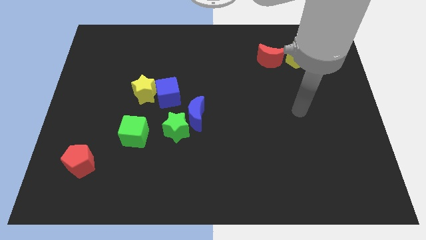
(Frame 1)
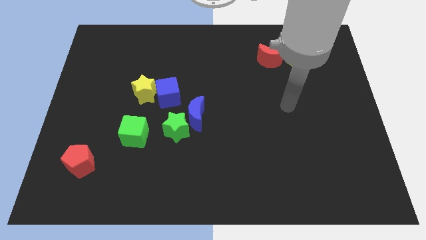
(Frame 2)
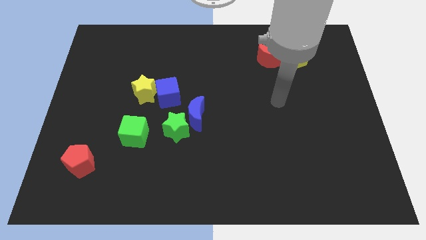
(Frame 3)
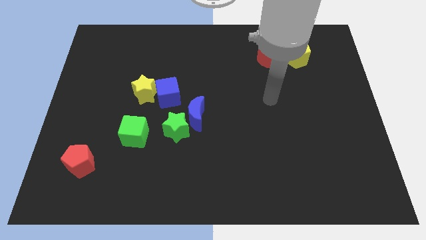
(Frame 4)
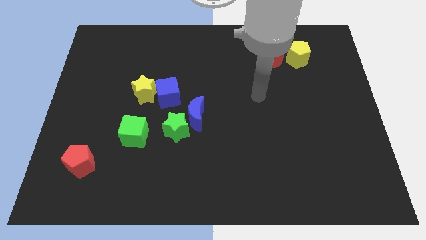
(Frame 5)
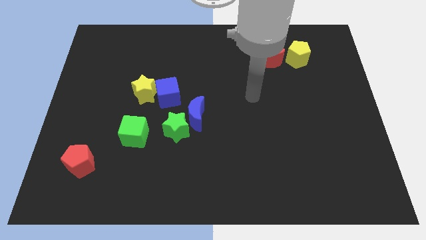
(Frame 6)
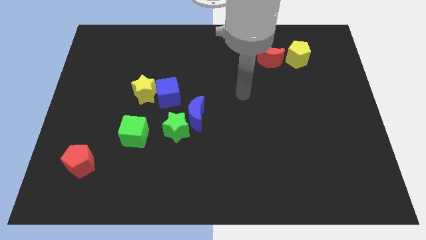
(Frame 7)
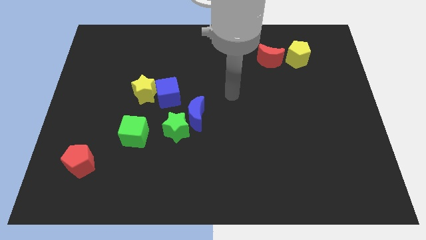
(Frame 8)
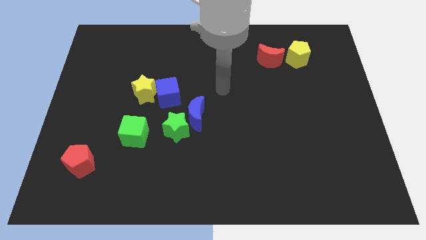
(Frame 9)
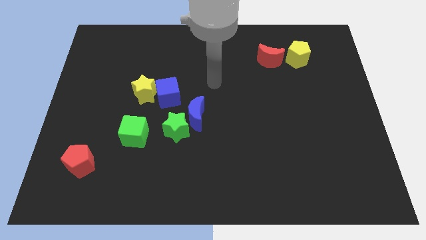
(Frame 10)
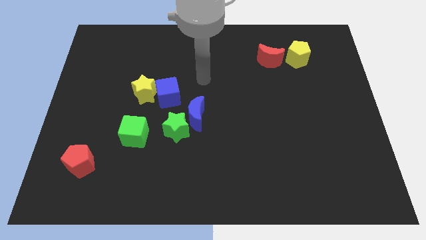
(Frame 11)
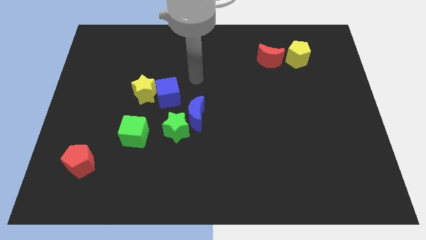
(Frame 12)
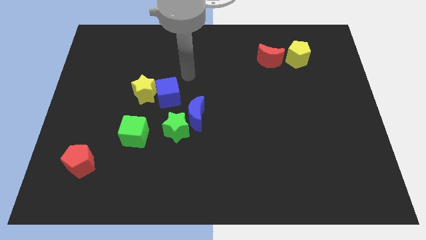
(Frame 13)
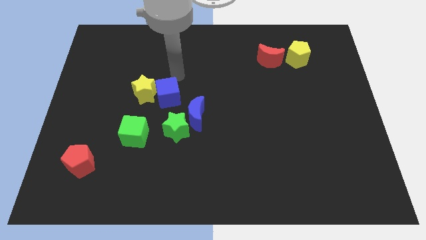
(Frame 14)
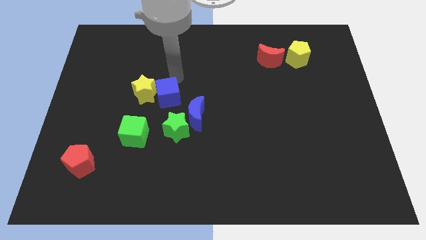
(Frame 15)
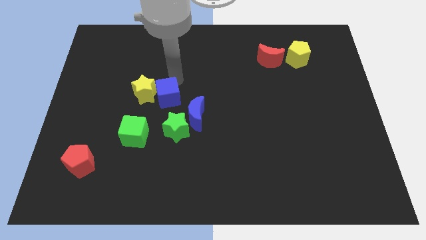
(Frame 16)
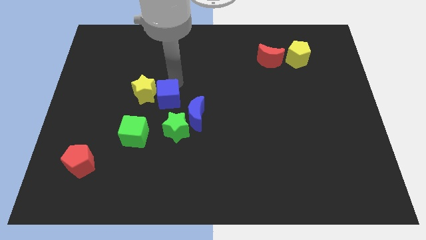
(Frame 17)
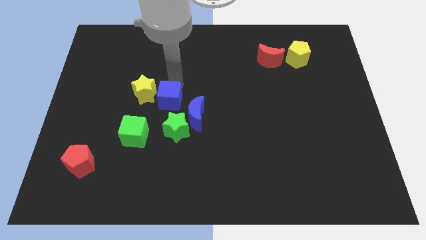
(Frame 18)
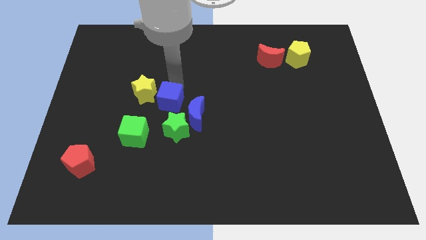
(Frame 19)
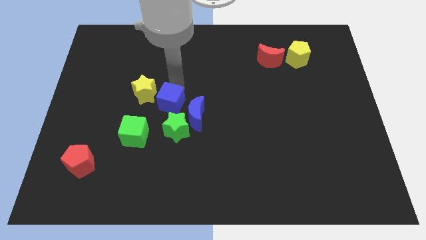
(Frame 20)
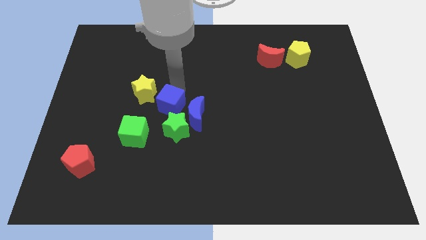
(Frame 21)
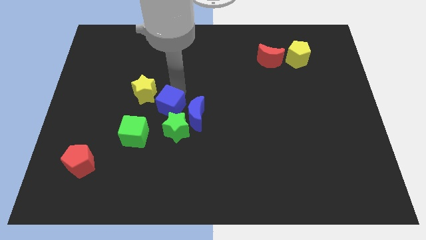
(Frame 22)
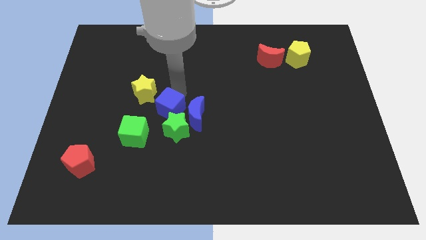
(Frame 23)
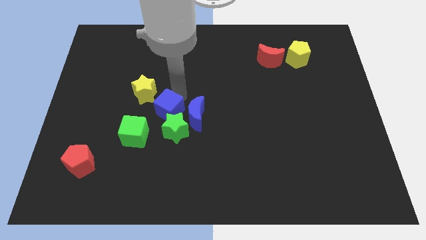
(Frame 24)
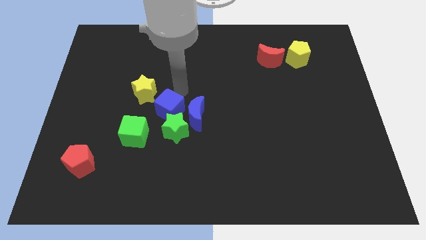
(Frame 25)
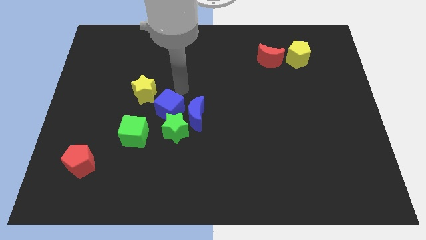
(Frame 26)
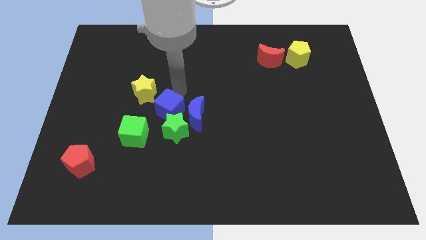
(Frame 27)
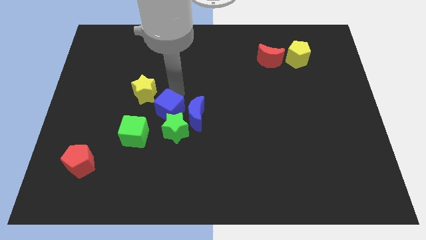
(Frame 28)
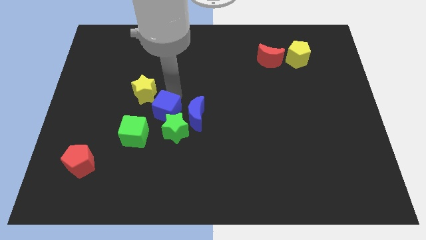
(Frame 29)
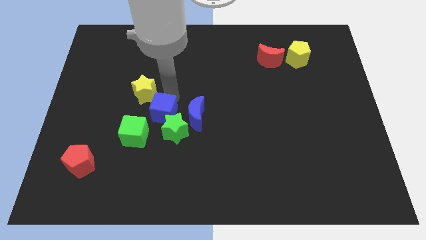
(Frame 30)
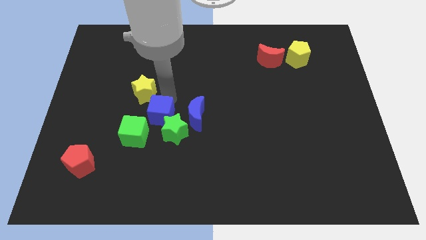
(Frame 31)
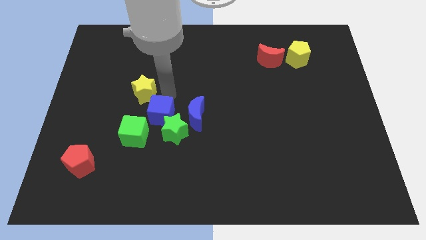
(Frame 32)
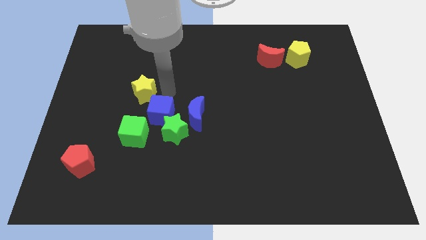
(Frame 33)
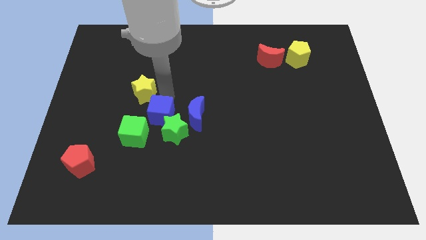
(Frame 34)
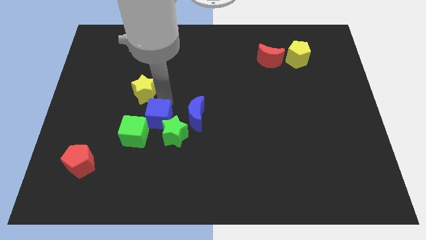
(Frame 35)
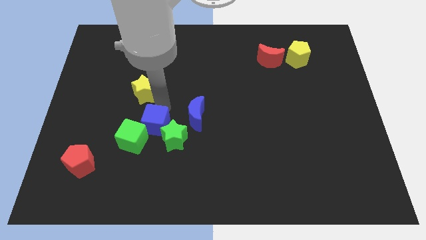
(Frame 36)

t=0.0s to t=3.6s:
move the blue cube a little bit down

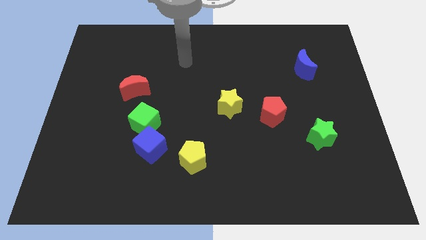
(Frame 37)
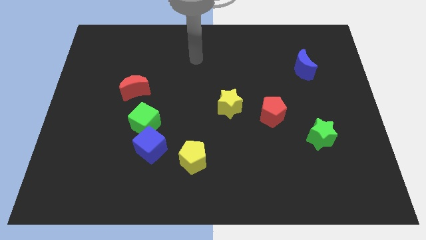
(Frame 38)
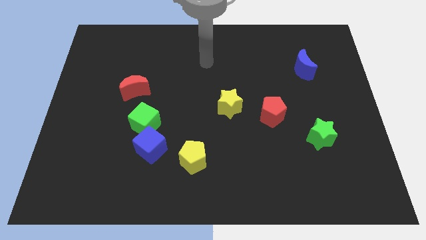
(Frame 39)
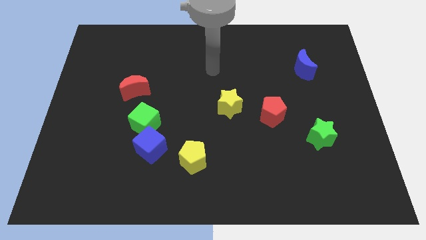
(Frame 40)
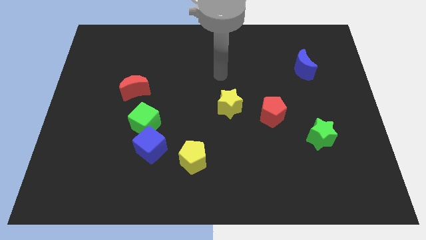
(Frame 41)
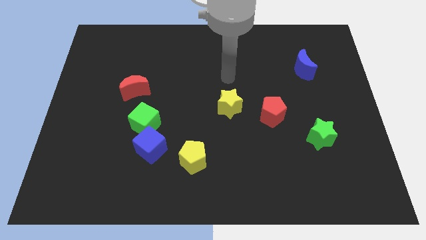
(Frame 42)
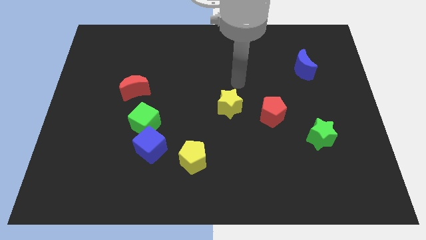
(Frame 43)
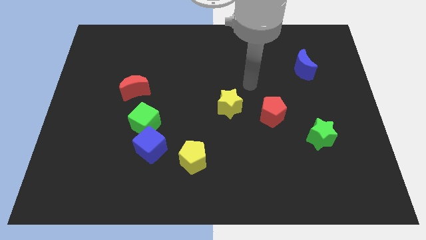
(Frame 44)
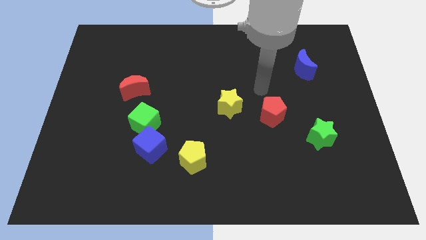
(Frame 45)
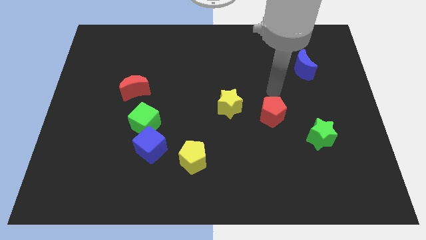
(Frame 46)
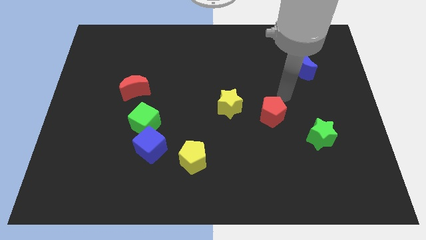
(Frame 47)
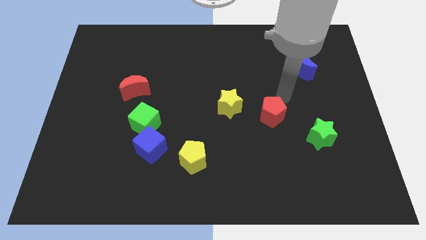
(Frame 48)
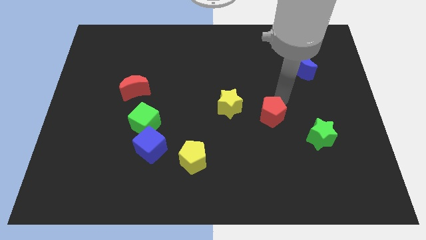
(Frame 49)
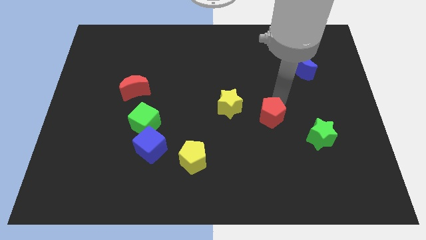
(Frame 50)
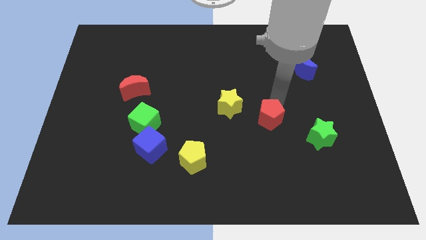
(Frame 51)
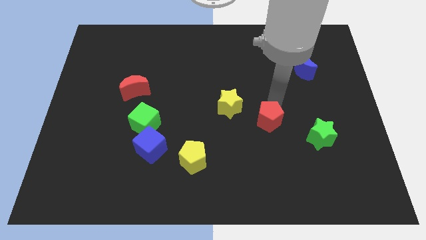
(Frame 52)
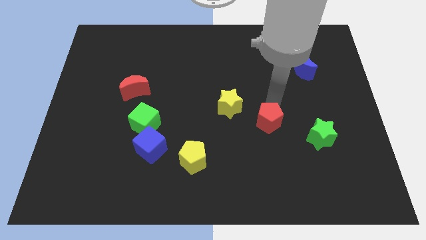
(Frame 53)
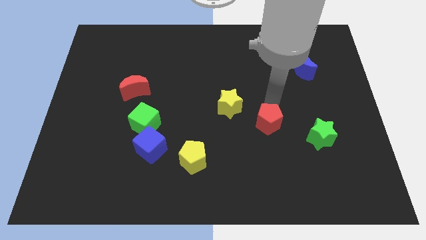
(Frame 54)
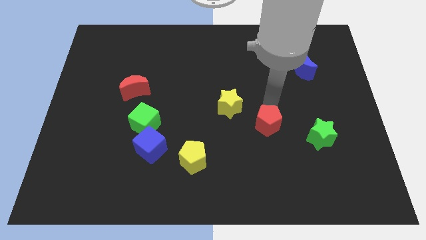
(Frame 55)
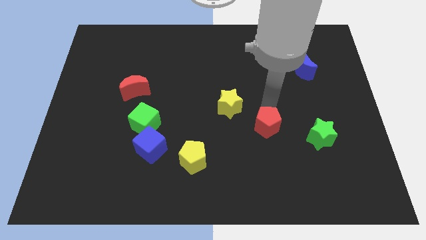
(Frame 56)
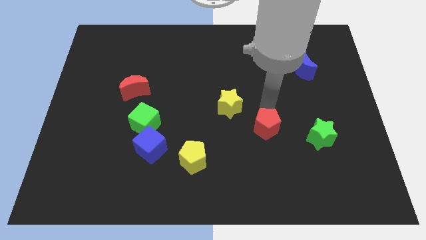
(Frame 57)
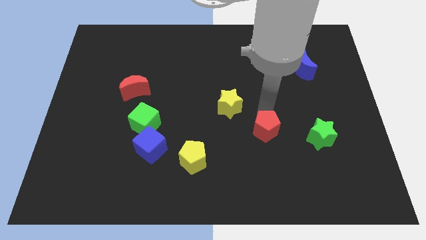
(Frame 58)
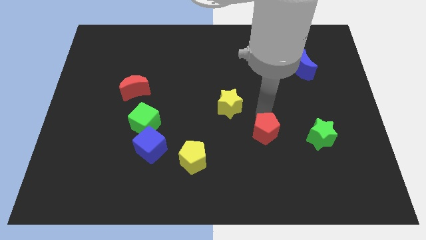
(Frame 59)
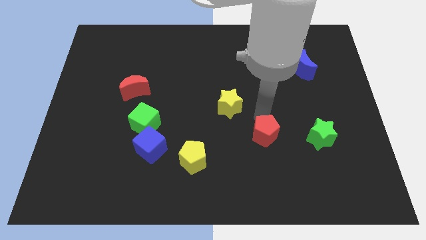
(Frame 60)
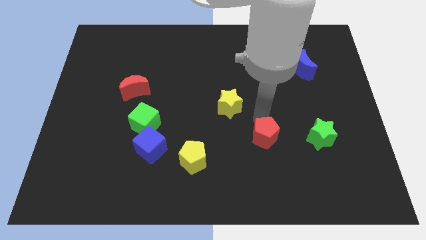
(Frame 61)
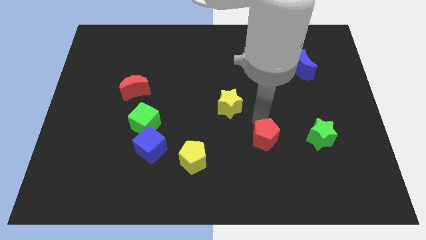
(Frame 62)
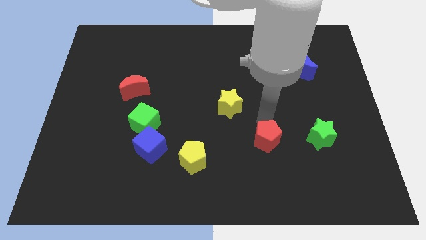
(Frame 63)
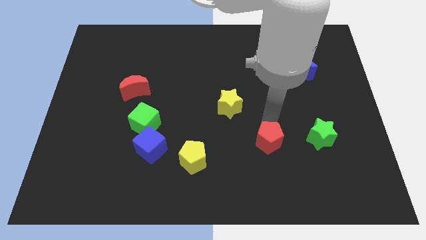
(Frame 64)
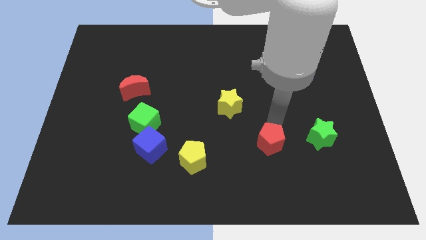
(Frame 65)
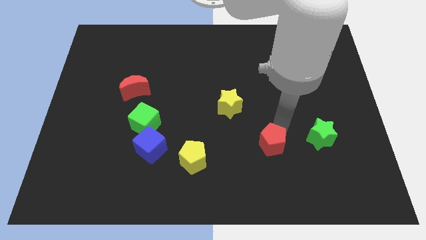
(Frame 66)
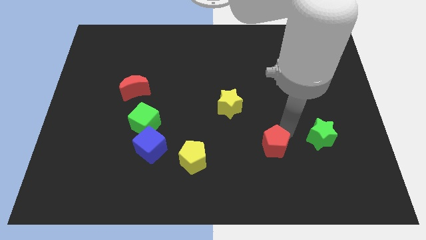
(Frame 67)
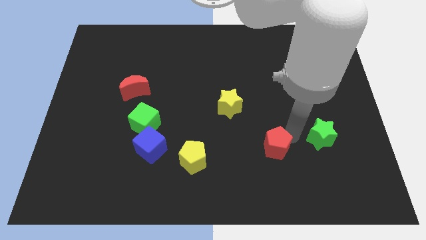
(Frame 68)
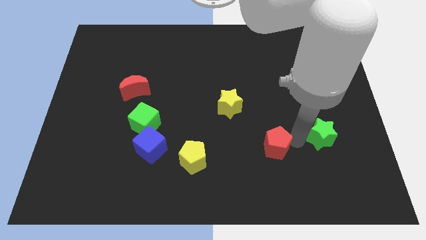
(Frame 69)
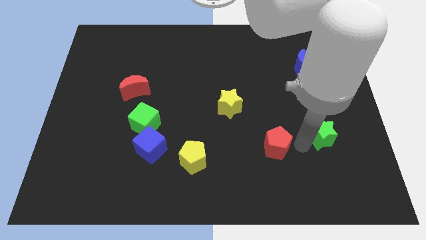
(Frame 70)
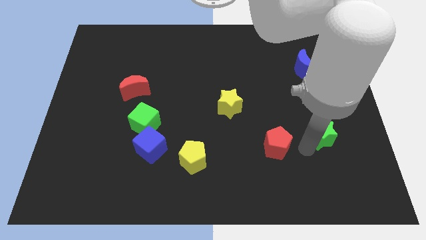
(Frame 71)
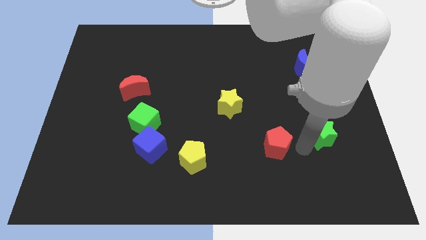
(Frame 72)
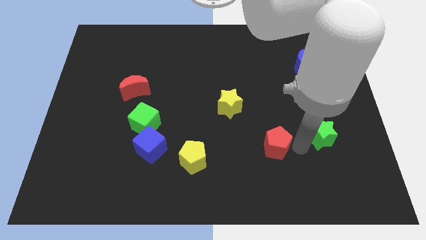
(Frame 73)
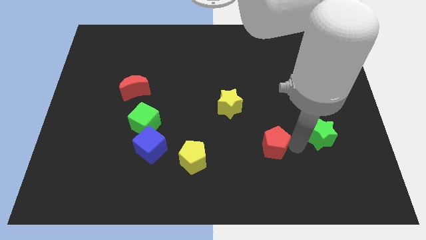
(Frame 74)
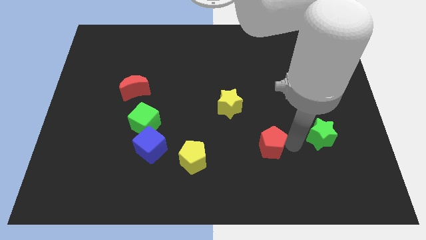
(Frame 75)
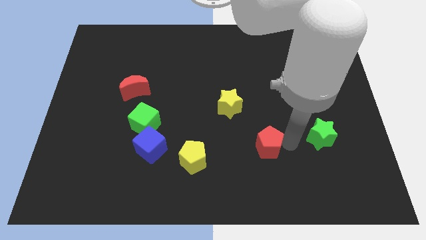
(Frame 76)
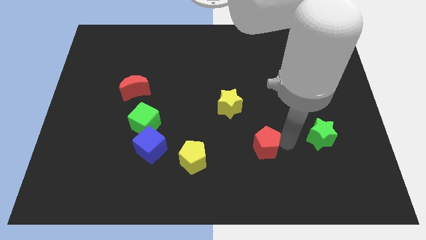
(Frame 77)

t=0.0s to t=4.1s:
move the red pentagon a little downwards and left diagonally
